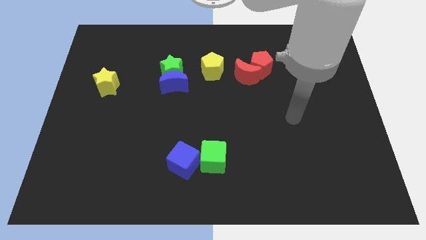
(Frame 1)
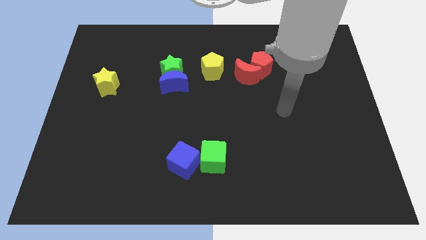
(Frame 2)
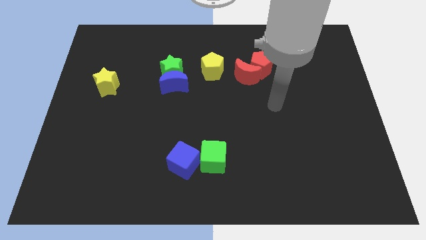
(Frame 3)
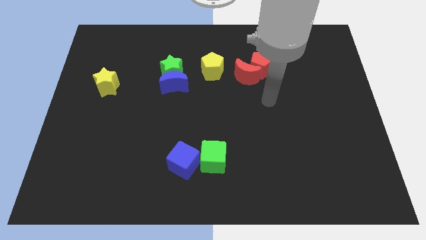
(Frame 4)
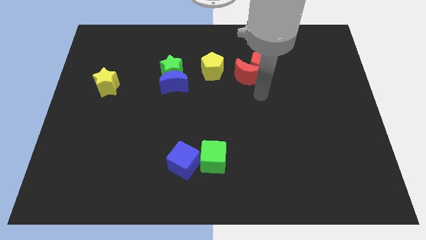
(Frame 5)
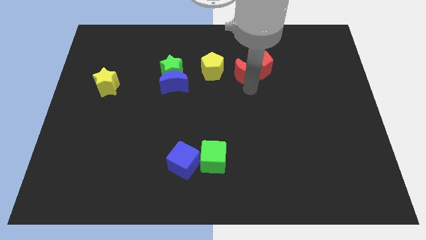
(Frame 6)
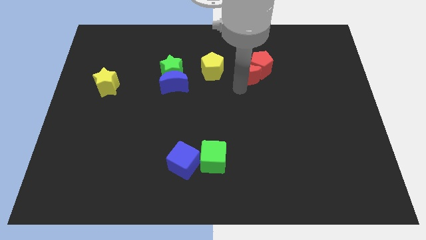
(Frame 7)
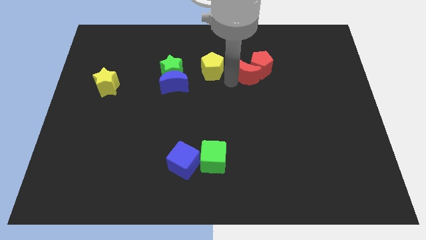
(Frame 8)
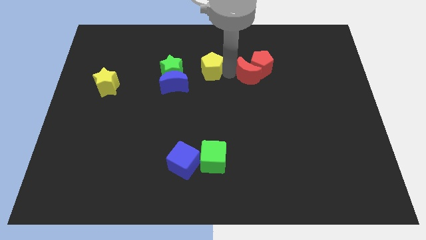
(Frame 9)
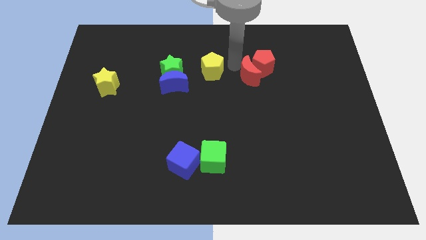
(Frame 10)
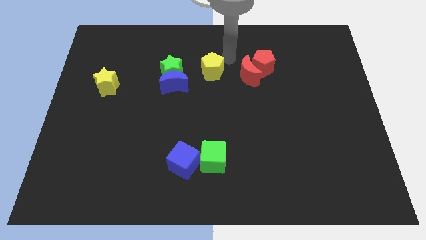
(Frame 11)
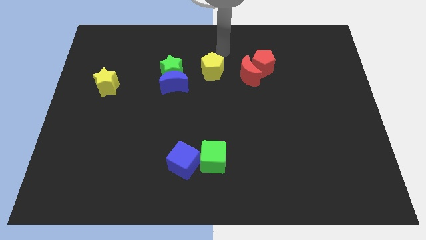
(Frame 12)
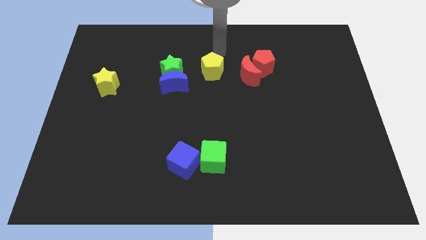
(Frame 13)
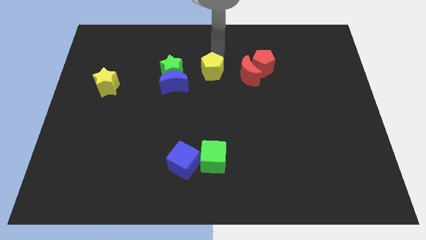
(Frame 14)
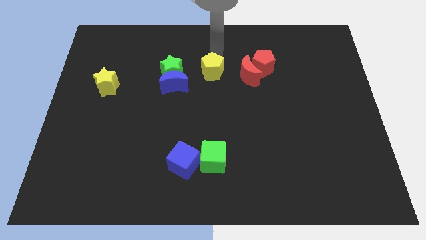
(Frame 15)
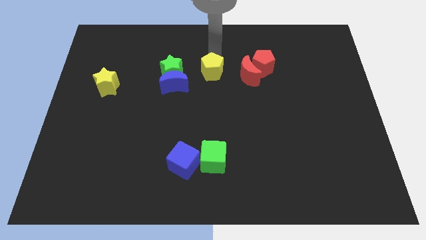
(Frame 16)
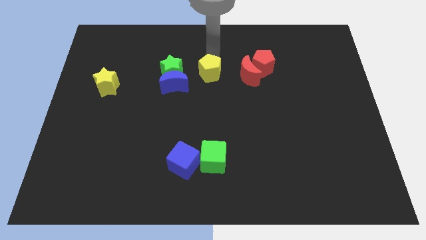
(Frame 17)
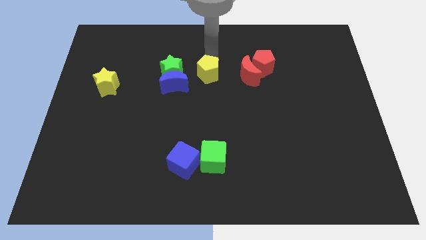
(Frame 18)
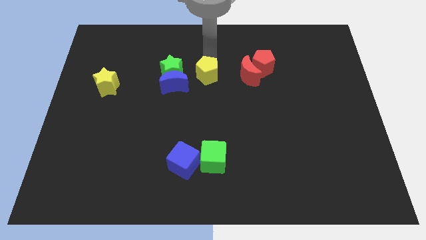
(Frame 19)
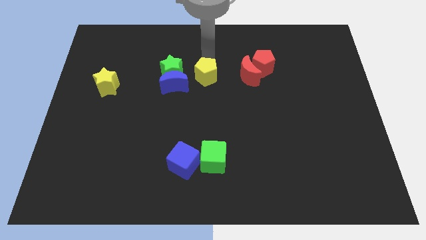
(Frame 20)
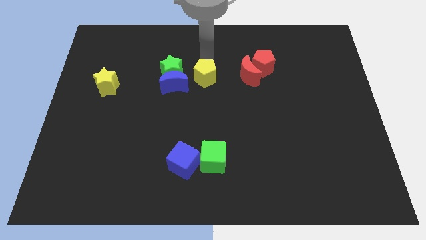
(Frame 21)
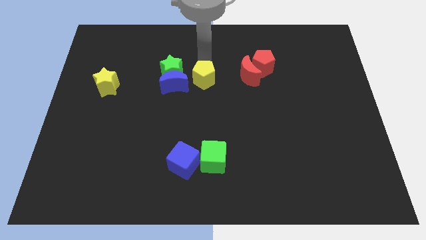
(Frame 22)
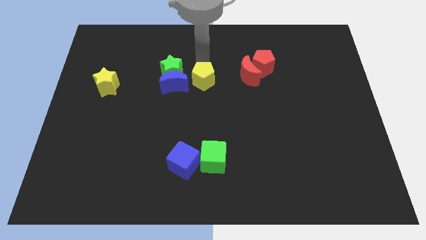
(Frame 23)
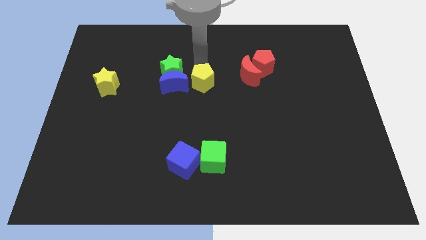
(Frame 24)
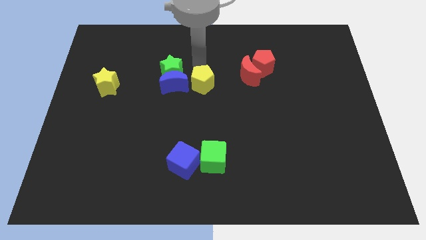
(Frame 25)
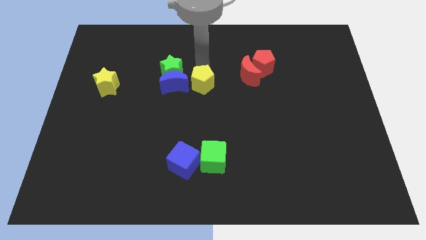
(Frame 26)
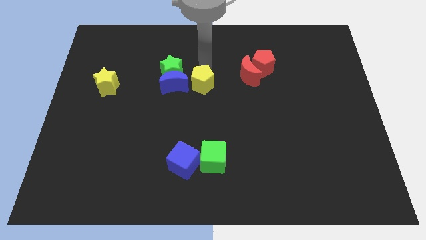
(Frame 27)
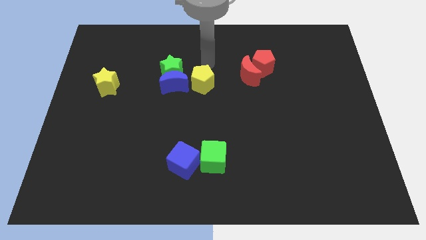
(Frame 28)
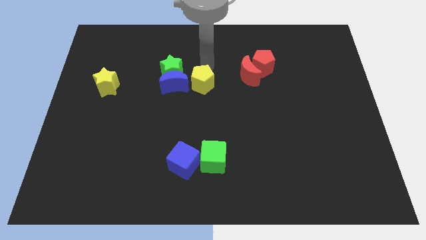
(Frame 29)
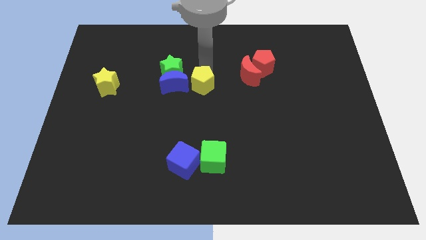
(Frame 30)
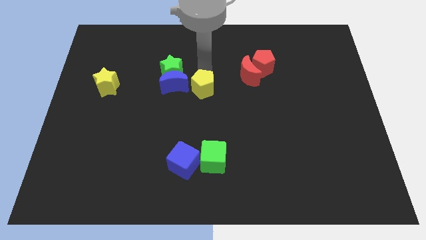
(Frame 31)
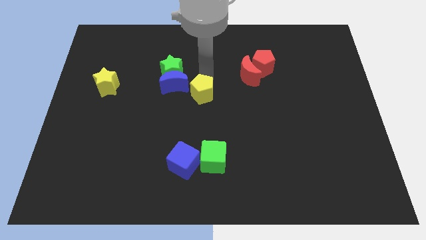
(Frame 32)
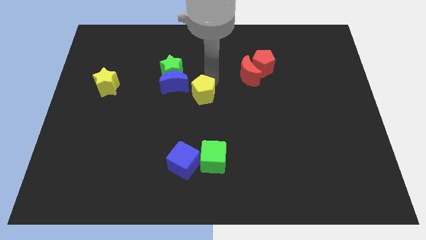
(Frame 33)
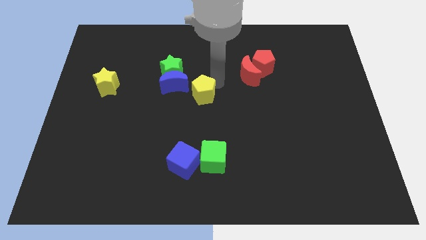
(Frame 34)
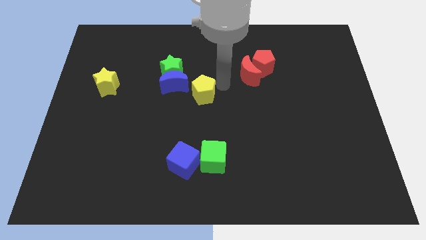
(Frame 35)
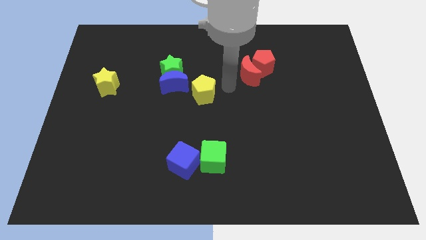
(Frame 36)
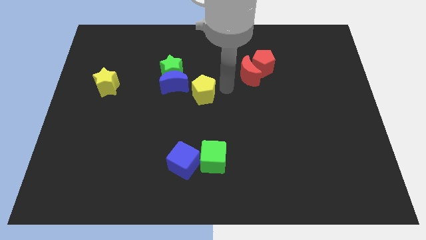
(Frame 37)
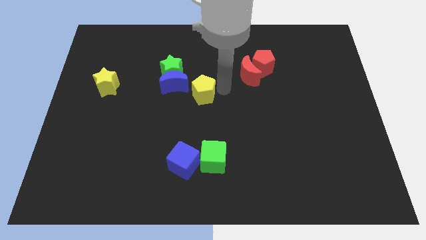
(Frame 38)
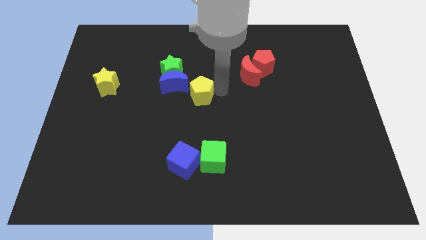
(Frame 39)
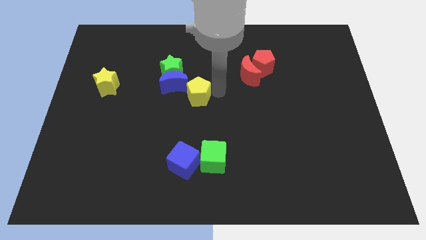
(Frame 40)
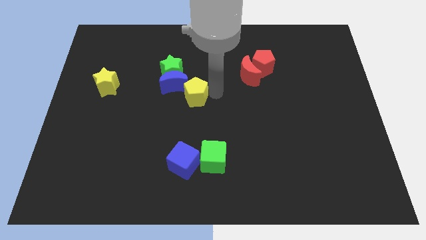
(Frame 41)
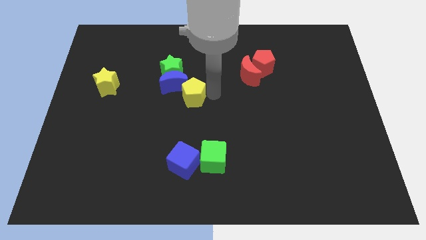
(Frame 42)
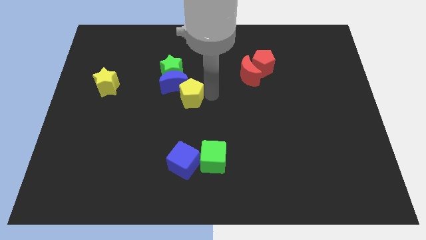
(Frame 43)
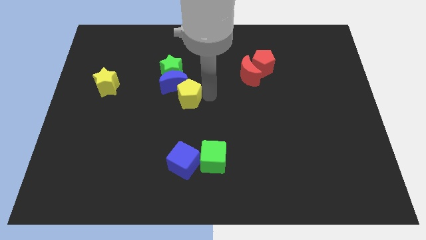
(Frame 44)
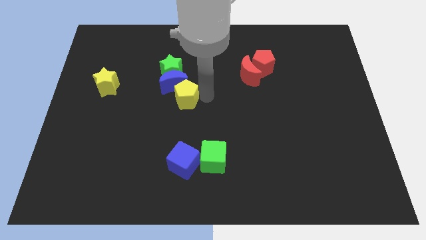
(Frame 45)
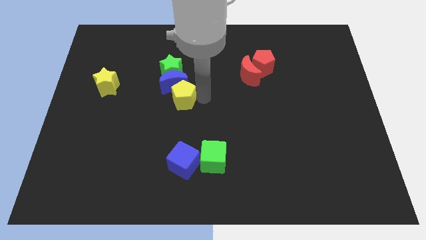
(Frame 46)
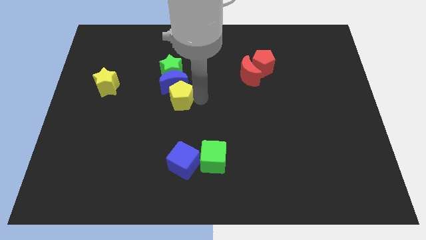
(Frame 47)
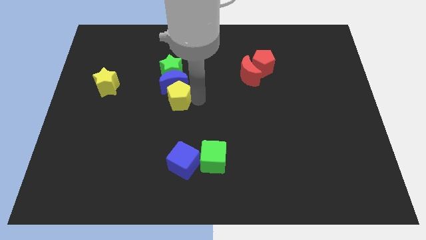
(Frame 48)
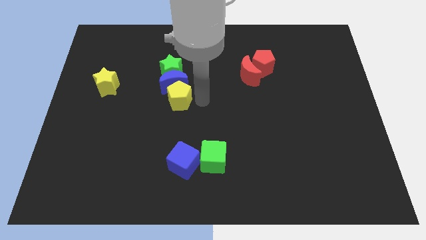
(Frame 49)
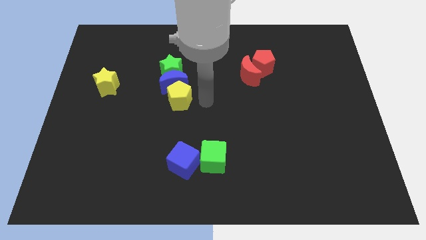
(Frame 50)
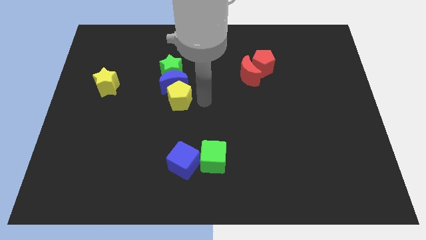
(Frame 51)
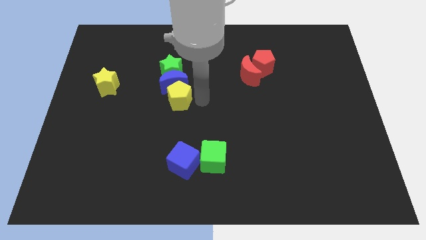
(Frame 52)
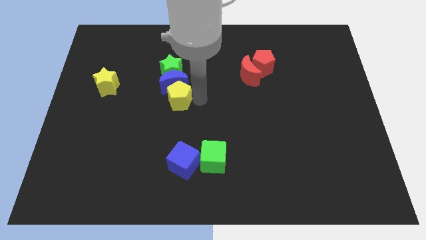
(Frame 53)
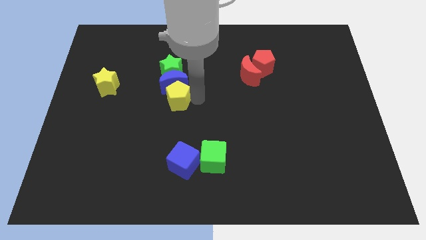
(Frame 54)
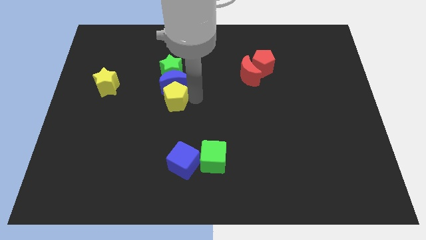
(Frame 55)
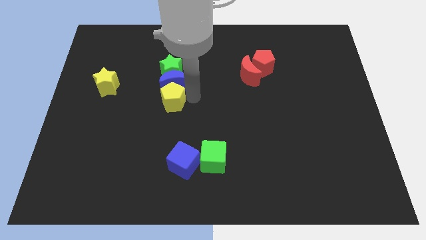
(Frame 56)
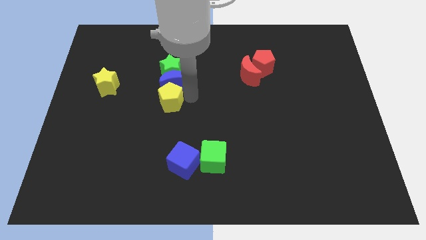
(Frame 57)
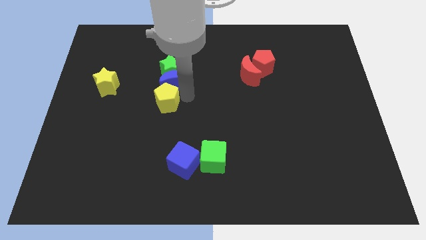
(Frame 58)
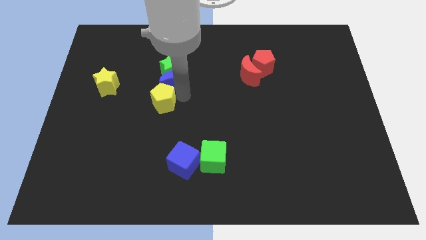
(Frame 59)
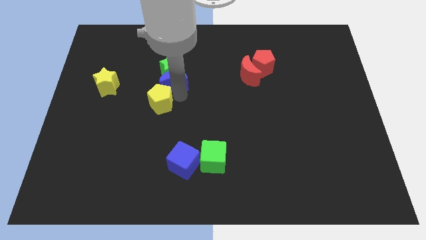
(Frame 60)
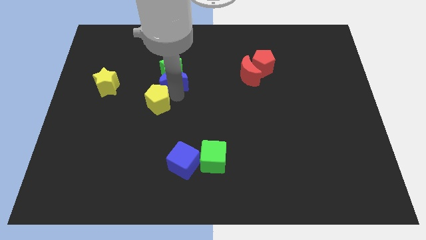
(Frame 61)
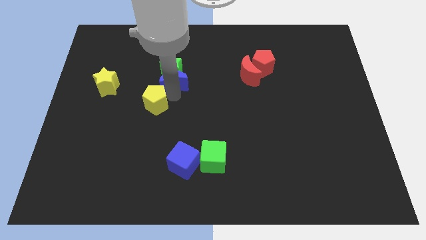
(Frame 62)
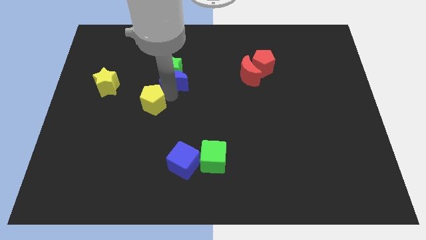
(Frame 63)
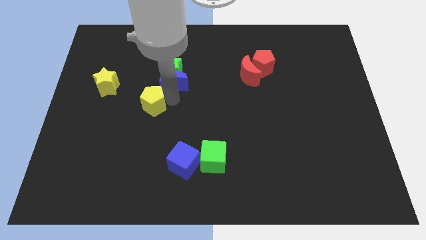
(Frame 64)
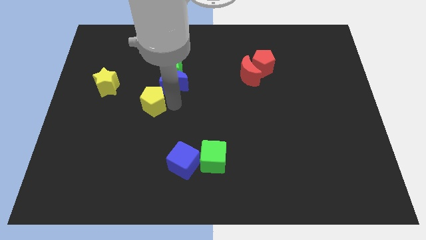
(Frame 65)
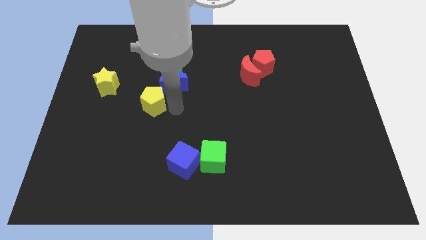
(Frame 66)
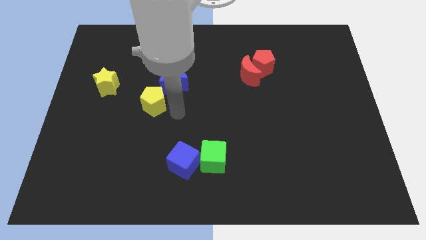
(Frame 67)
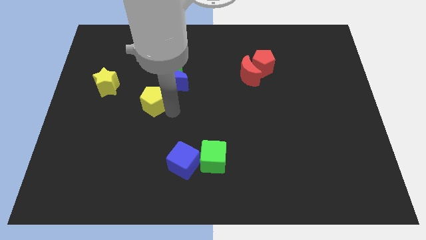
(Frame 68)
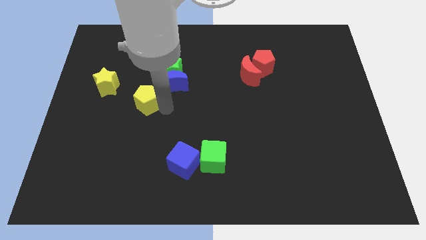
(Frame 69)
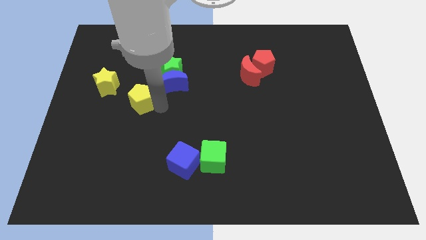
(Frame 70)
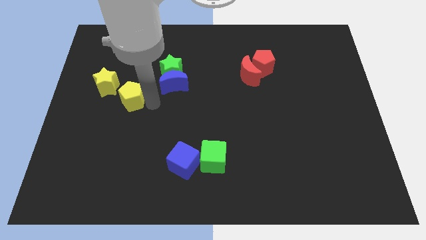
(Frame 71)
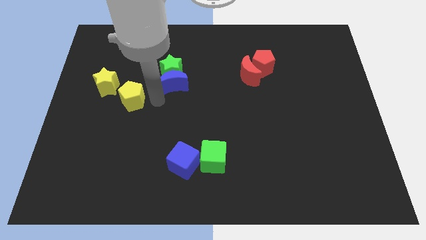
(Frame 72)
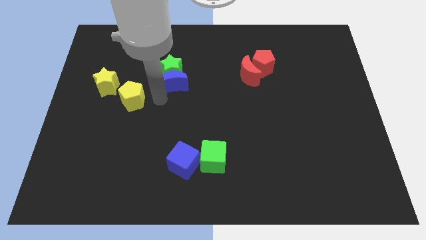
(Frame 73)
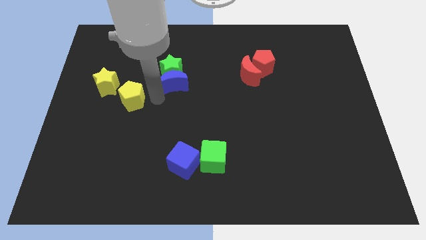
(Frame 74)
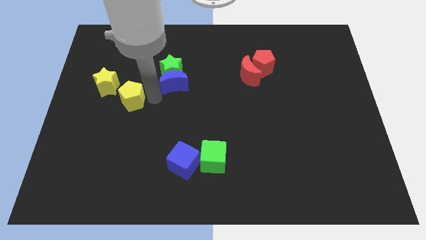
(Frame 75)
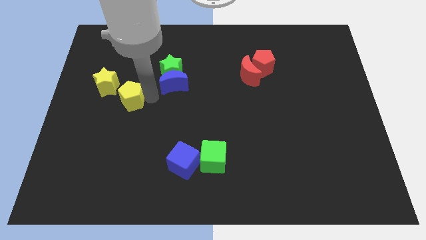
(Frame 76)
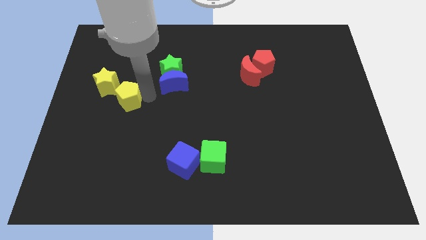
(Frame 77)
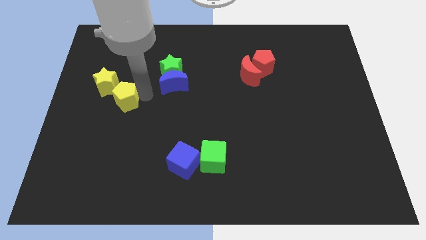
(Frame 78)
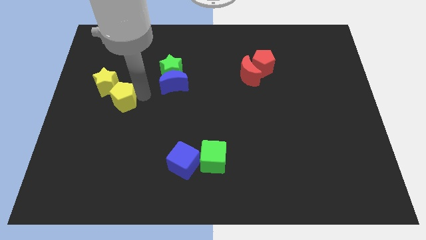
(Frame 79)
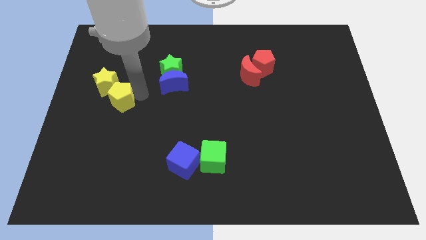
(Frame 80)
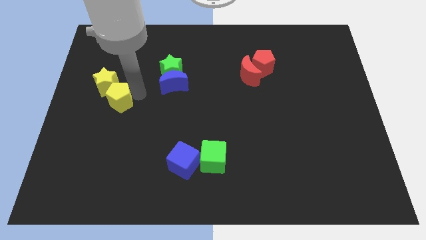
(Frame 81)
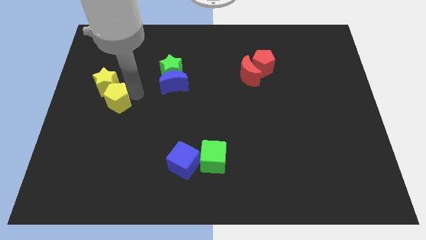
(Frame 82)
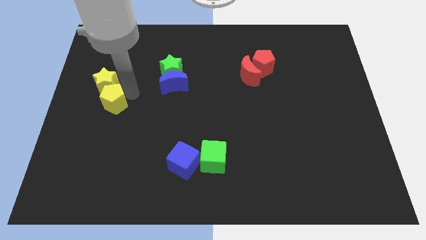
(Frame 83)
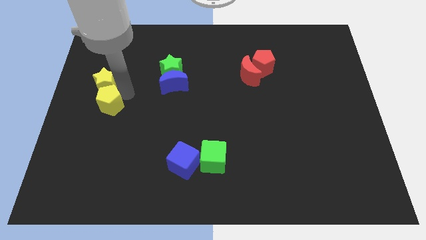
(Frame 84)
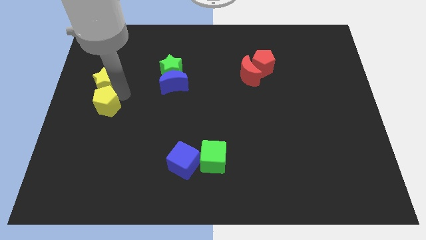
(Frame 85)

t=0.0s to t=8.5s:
move the yellow pentagon to the left side
